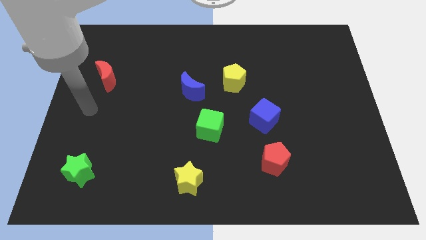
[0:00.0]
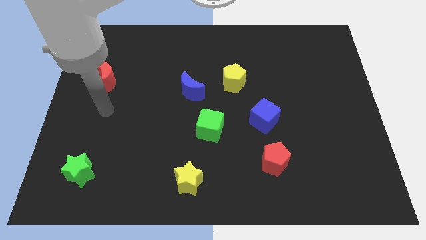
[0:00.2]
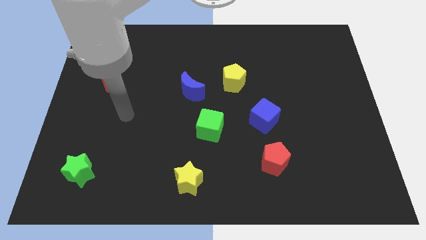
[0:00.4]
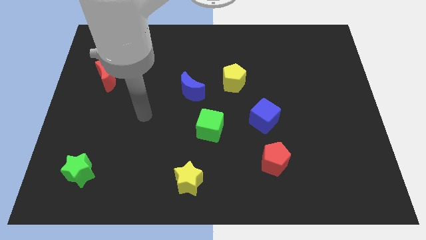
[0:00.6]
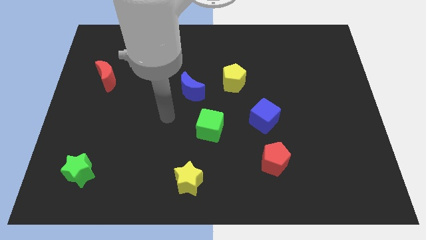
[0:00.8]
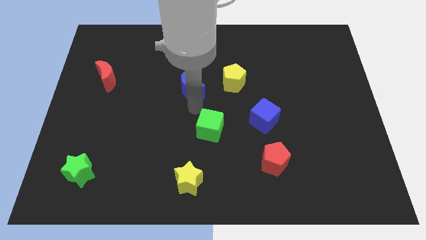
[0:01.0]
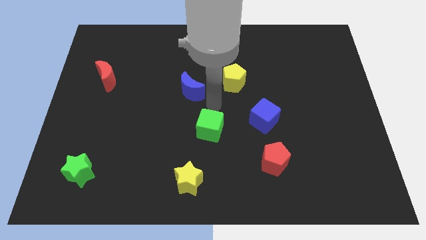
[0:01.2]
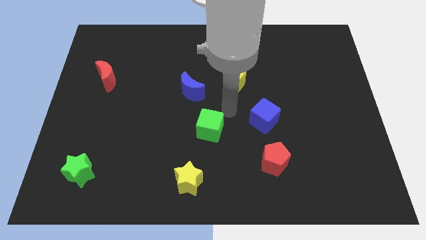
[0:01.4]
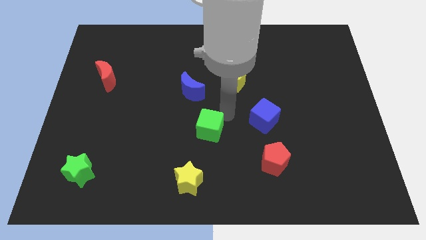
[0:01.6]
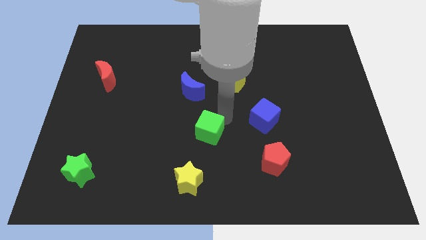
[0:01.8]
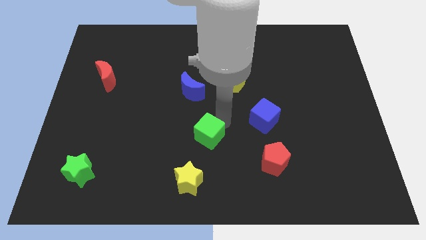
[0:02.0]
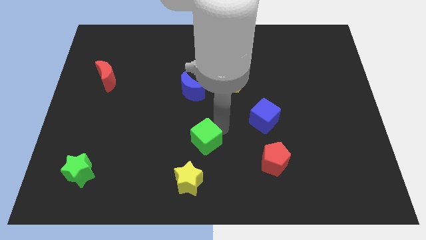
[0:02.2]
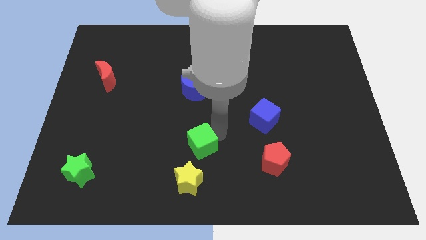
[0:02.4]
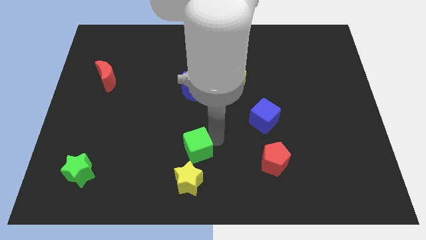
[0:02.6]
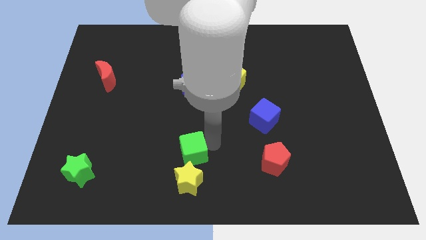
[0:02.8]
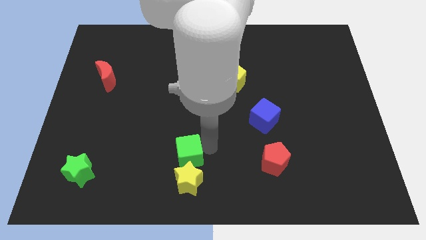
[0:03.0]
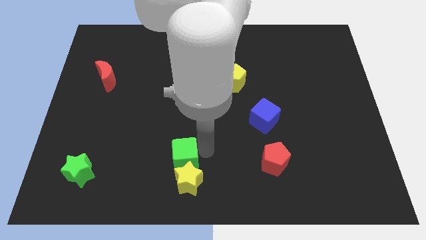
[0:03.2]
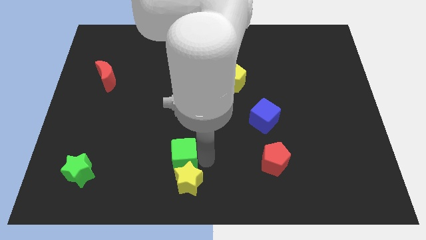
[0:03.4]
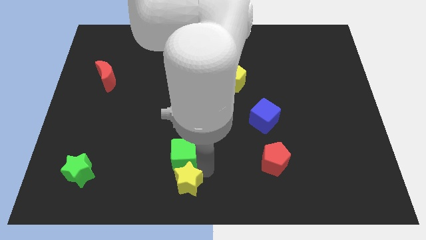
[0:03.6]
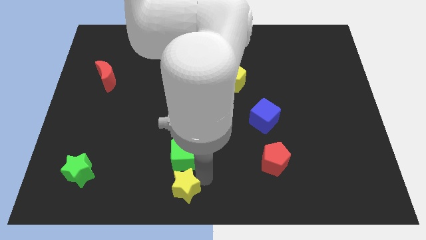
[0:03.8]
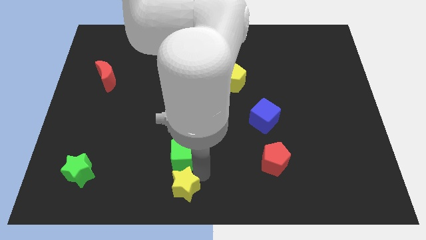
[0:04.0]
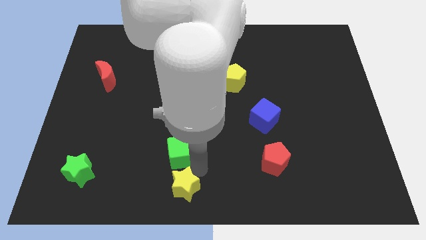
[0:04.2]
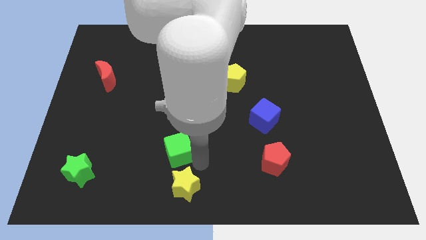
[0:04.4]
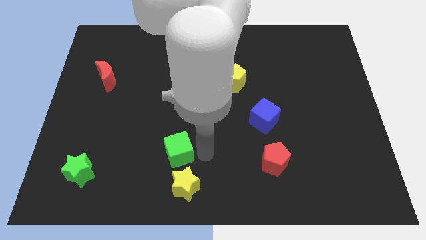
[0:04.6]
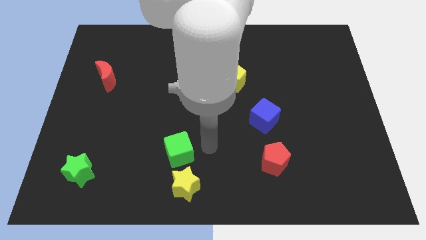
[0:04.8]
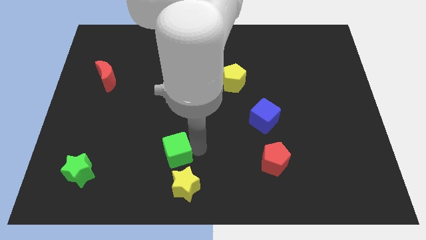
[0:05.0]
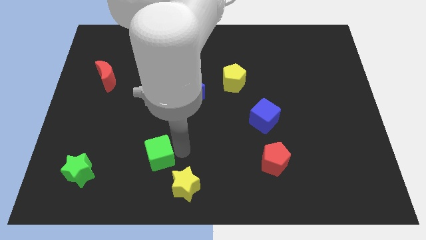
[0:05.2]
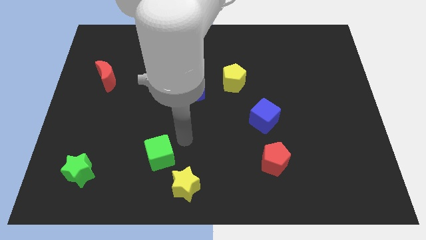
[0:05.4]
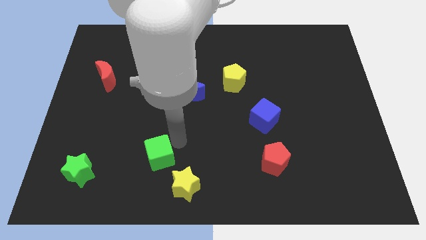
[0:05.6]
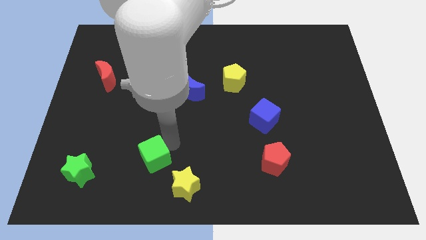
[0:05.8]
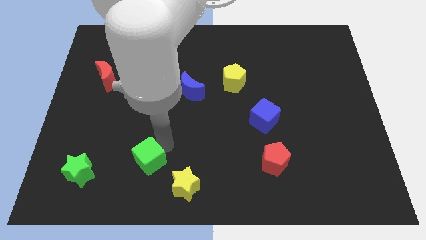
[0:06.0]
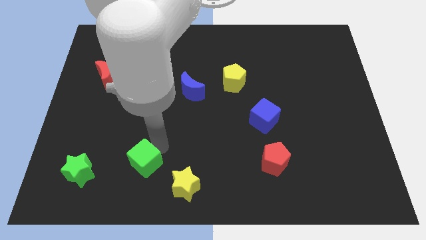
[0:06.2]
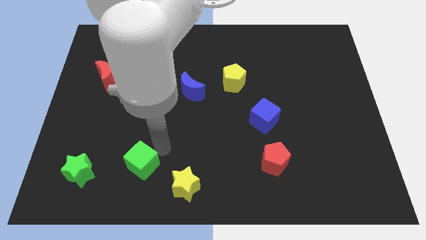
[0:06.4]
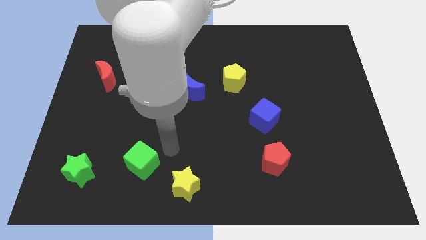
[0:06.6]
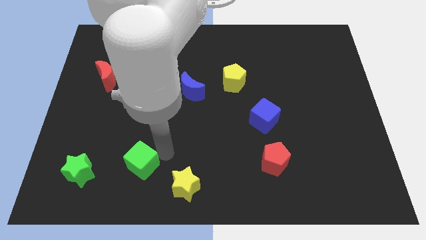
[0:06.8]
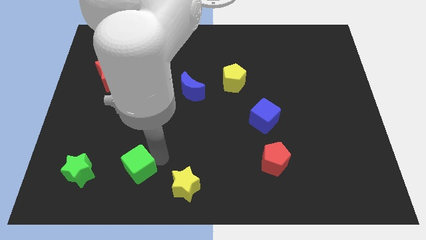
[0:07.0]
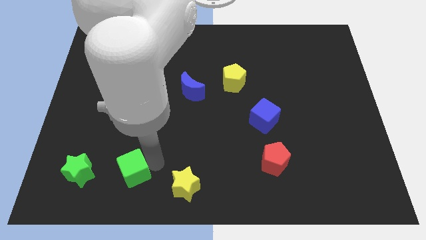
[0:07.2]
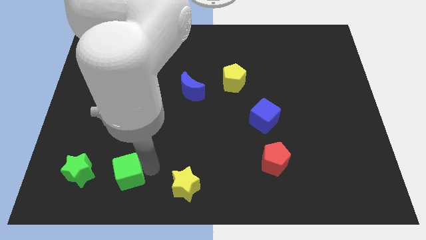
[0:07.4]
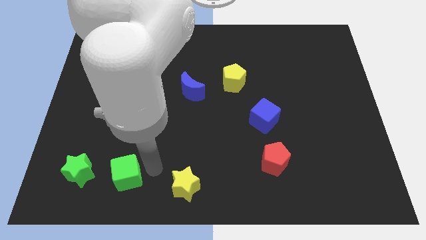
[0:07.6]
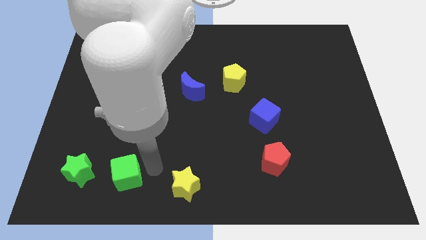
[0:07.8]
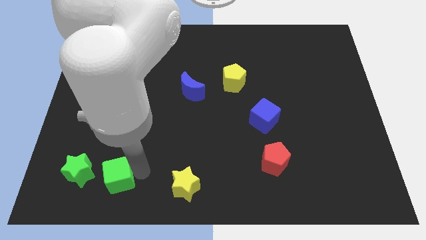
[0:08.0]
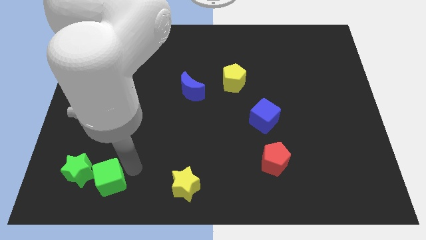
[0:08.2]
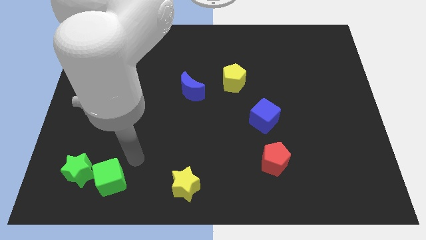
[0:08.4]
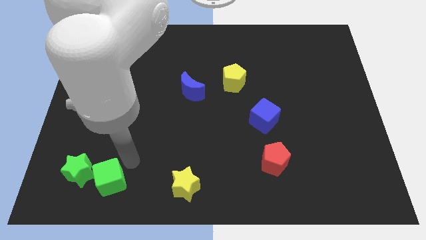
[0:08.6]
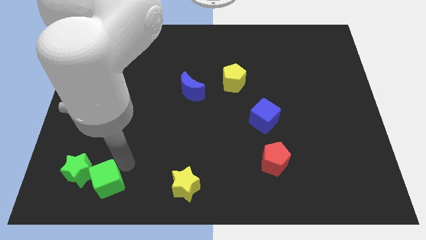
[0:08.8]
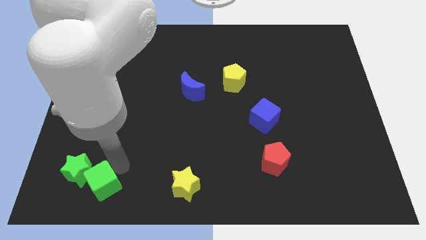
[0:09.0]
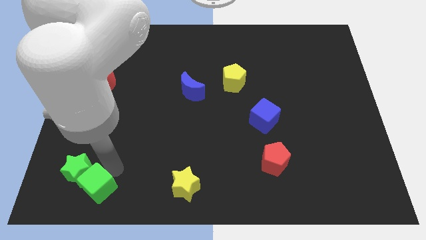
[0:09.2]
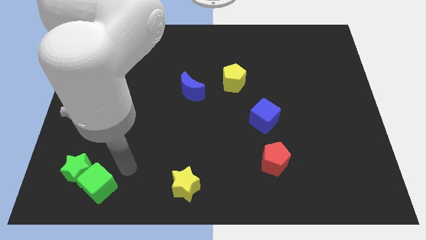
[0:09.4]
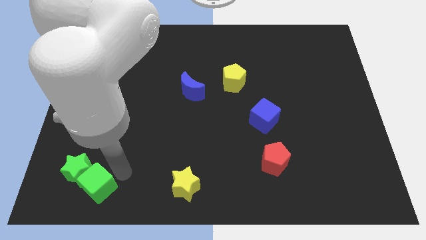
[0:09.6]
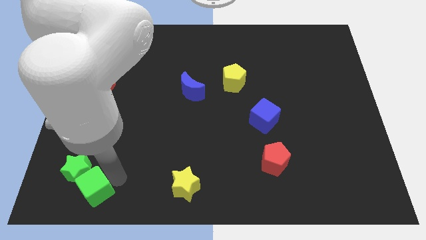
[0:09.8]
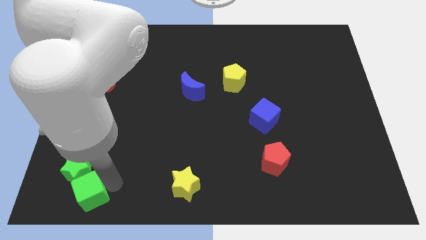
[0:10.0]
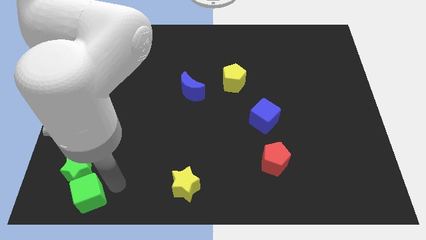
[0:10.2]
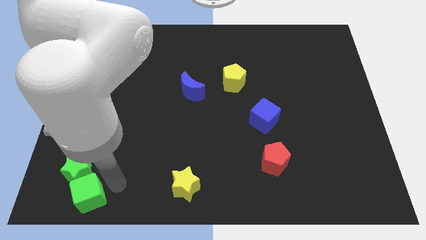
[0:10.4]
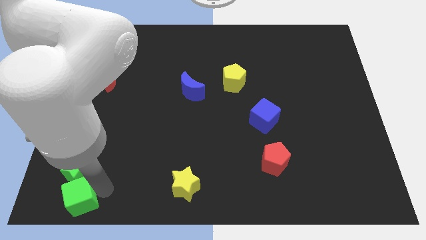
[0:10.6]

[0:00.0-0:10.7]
move the green cube to the bottom left of the board

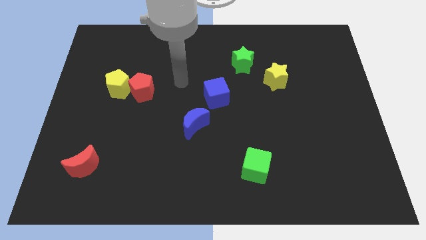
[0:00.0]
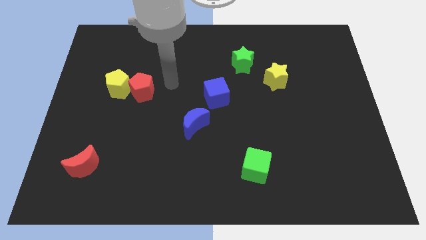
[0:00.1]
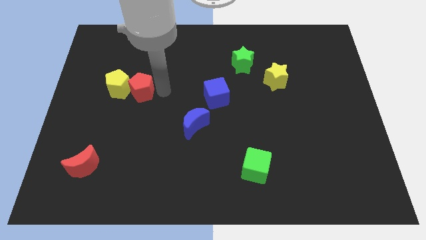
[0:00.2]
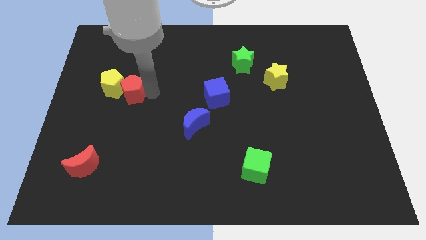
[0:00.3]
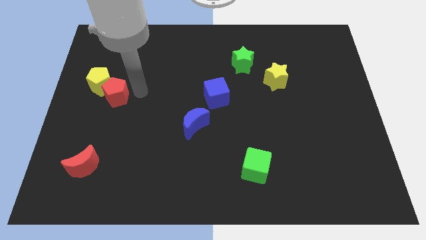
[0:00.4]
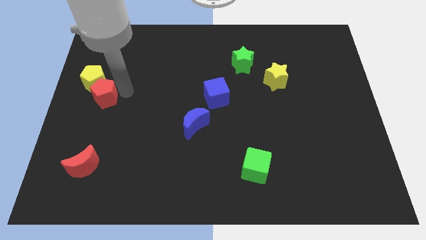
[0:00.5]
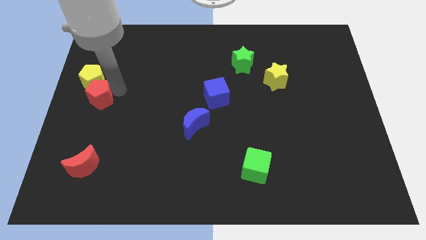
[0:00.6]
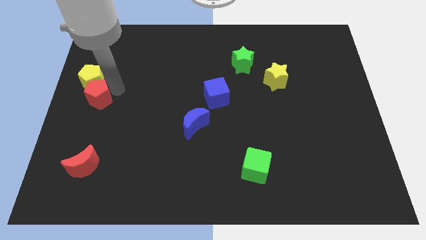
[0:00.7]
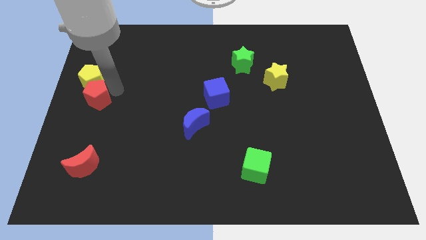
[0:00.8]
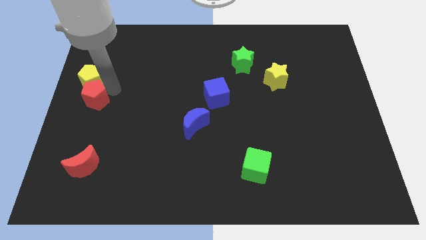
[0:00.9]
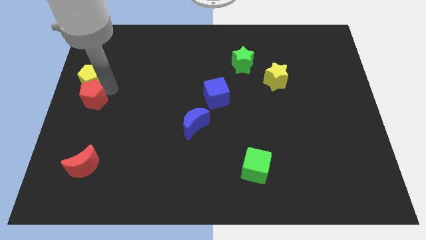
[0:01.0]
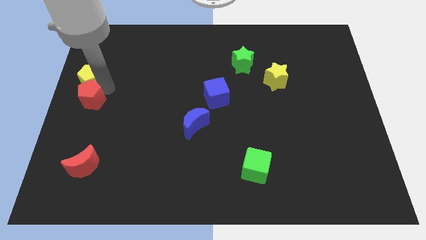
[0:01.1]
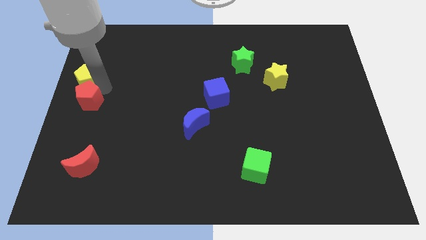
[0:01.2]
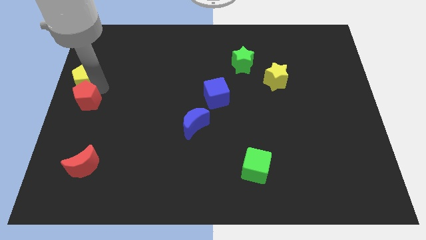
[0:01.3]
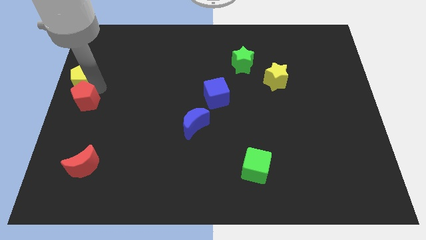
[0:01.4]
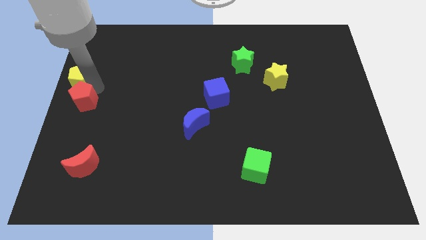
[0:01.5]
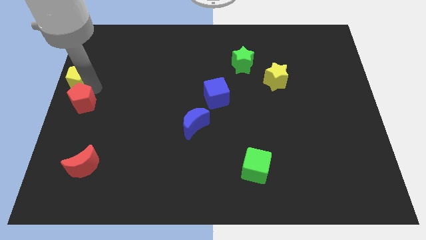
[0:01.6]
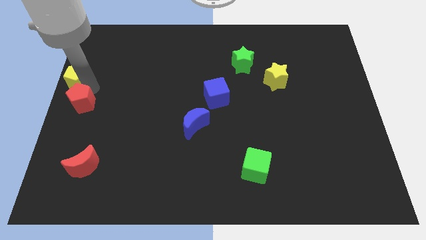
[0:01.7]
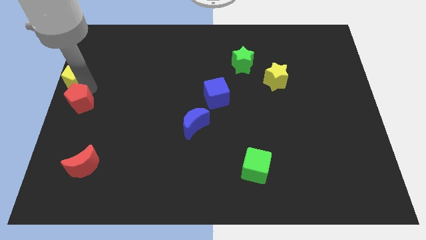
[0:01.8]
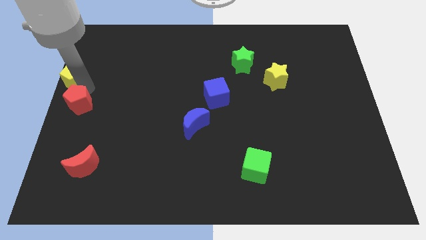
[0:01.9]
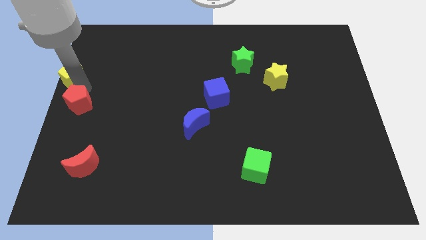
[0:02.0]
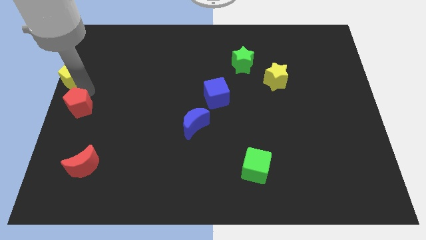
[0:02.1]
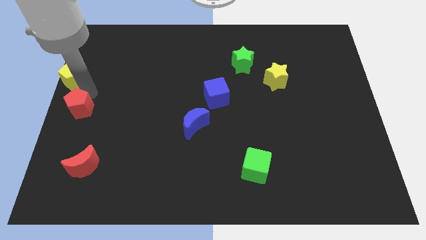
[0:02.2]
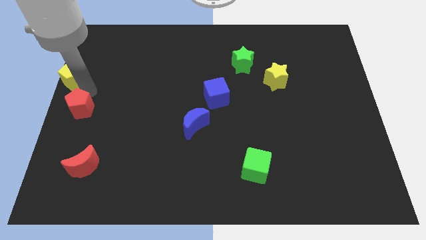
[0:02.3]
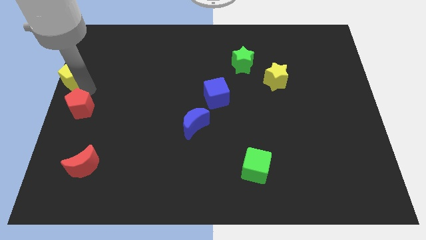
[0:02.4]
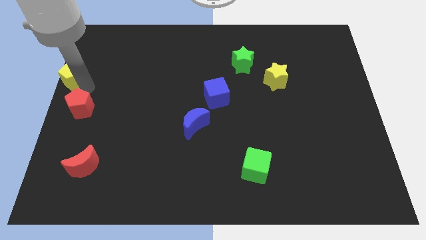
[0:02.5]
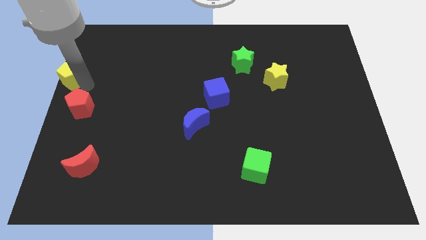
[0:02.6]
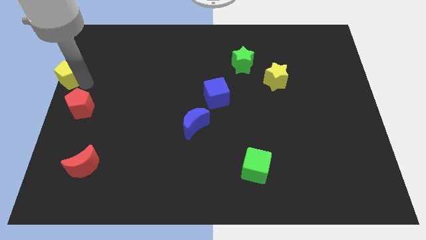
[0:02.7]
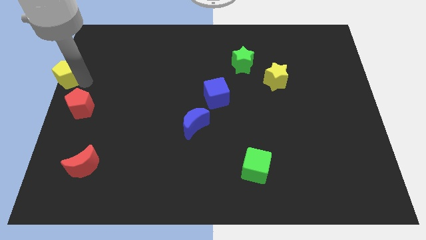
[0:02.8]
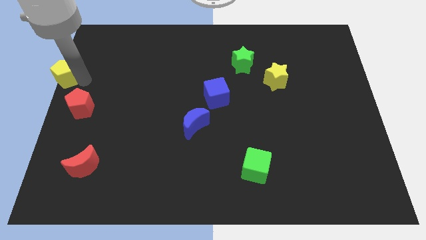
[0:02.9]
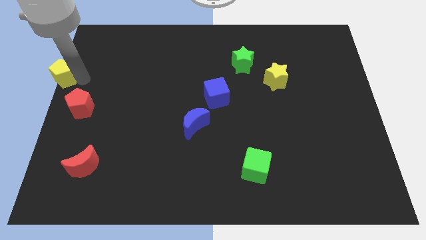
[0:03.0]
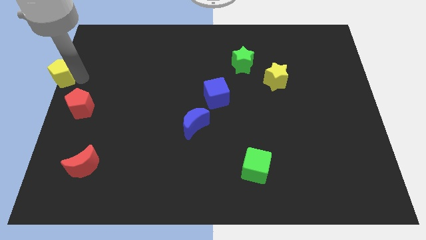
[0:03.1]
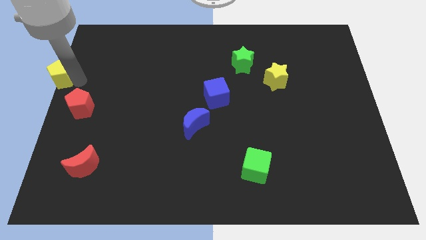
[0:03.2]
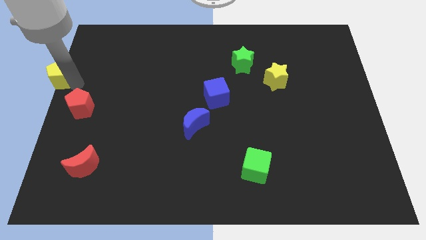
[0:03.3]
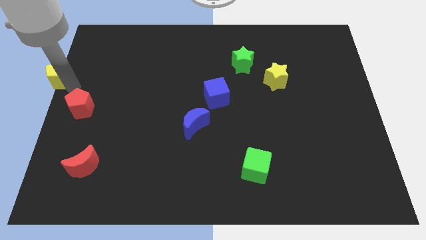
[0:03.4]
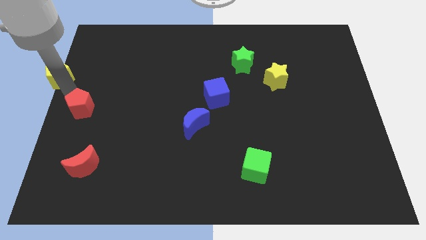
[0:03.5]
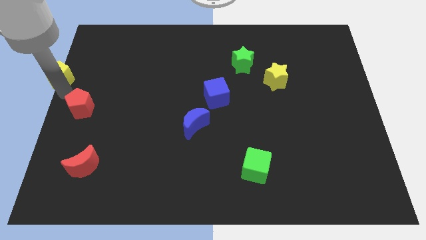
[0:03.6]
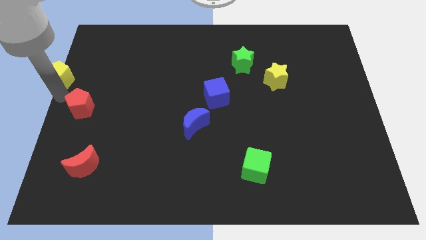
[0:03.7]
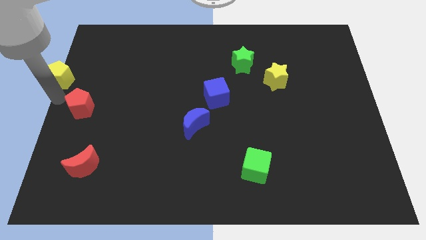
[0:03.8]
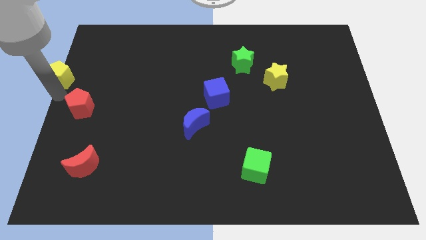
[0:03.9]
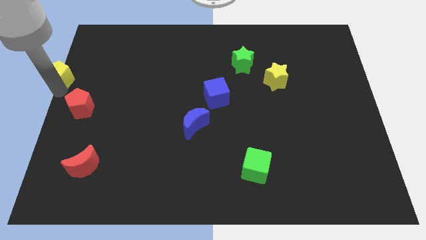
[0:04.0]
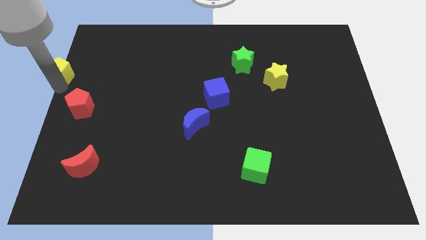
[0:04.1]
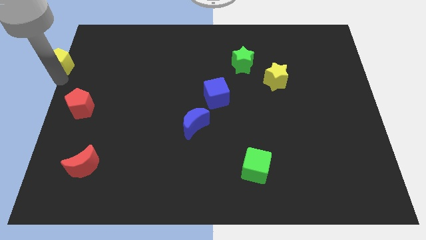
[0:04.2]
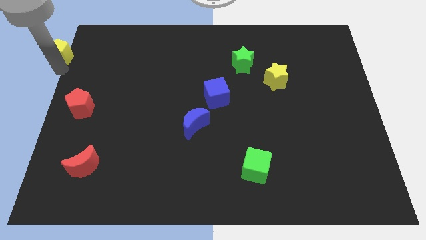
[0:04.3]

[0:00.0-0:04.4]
move the yellow pentagon to the top left
